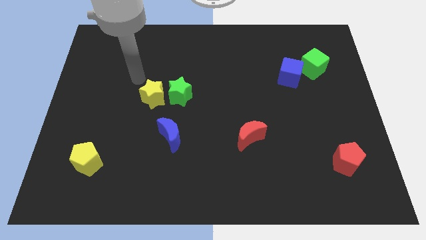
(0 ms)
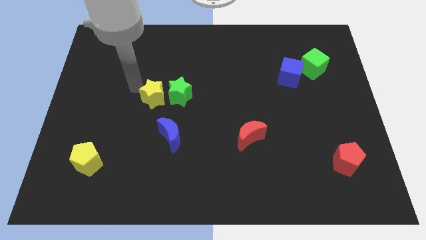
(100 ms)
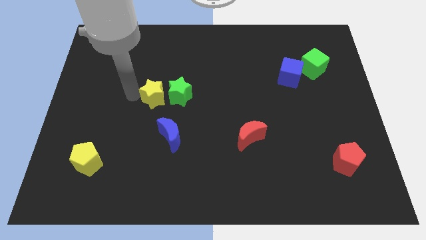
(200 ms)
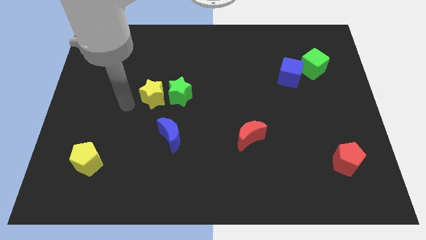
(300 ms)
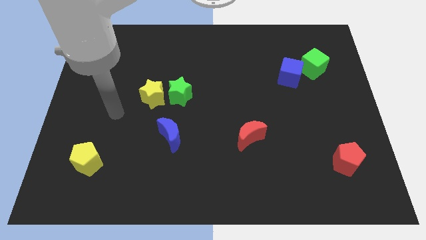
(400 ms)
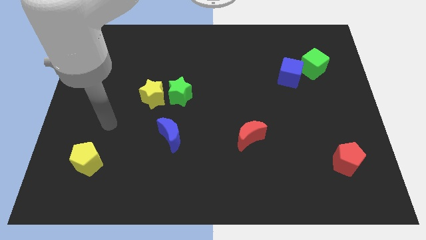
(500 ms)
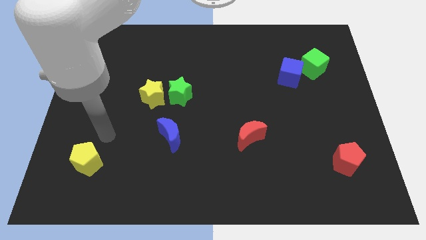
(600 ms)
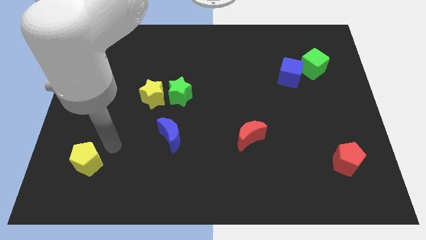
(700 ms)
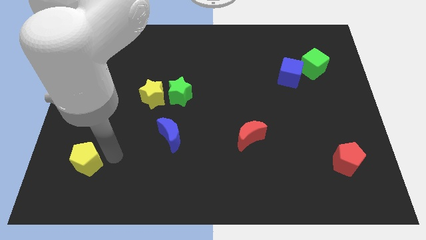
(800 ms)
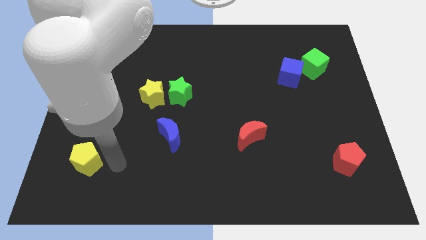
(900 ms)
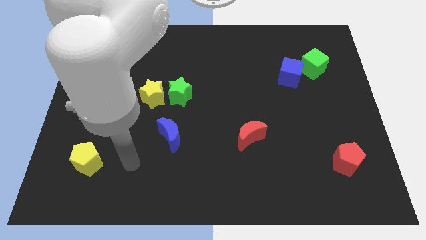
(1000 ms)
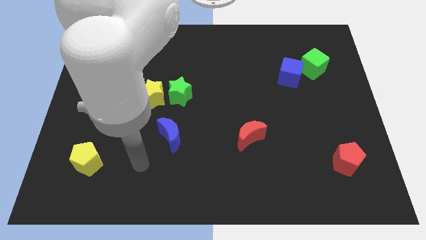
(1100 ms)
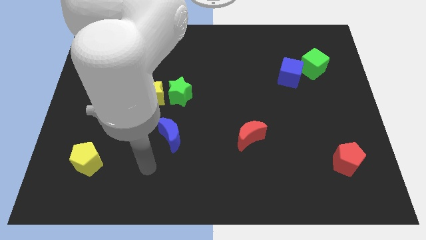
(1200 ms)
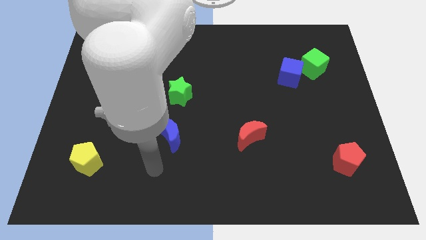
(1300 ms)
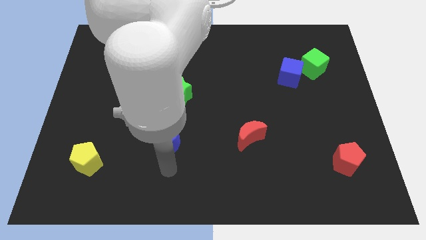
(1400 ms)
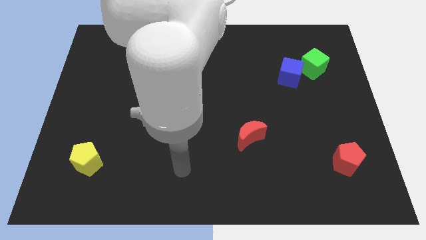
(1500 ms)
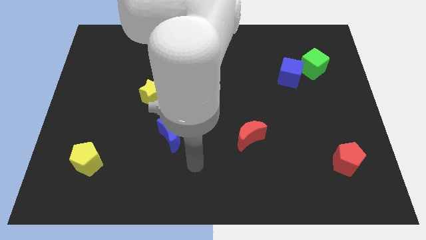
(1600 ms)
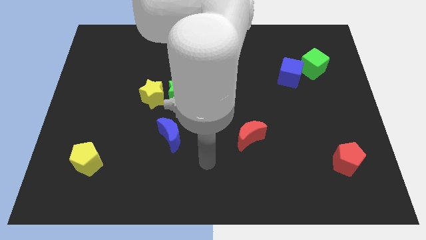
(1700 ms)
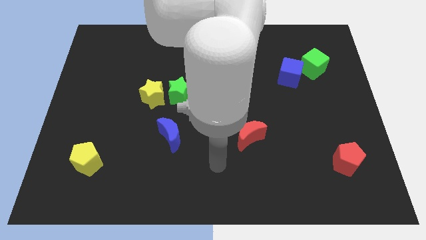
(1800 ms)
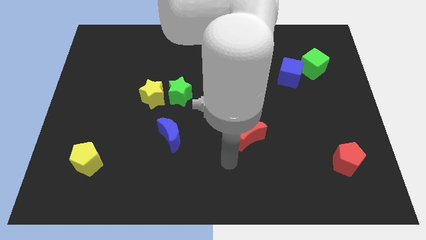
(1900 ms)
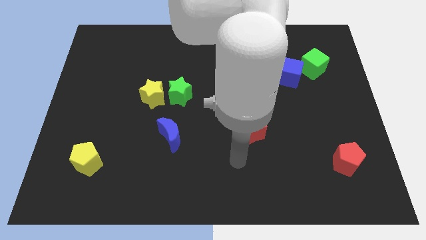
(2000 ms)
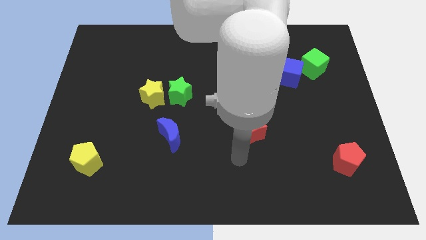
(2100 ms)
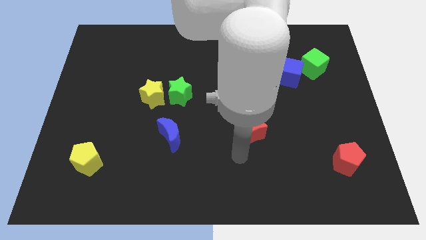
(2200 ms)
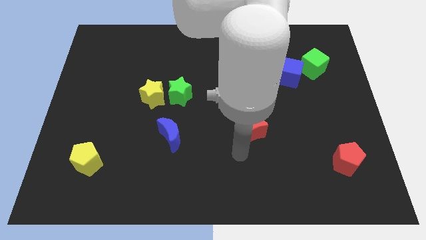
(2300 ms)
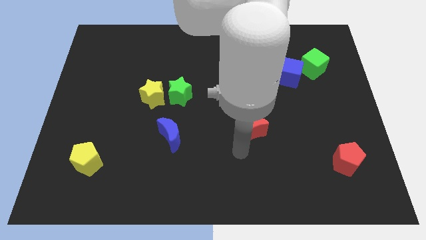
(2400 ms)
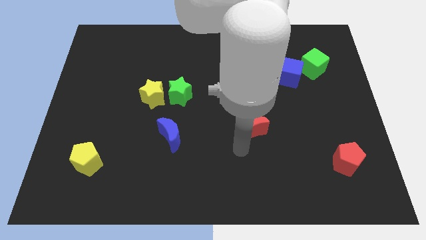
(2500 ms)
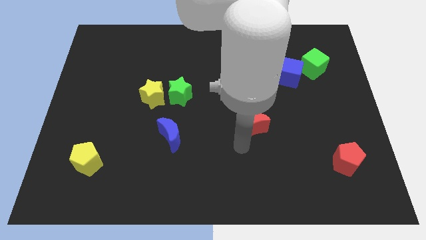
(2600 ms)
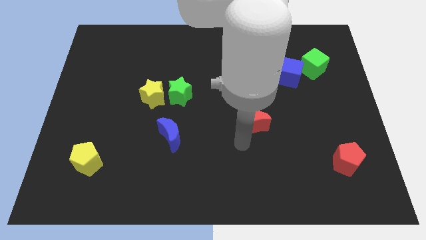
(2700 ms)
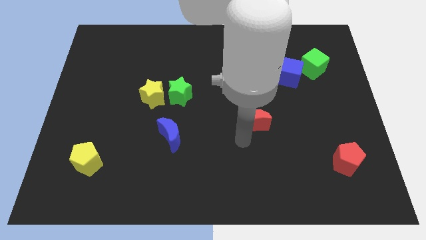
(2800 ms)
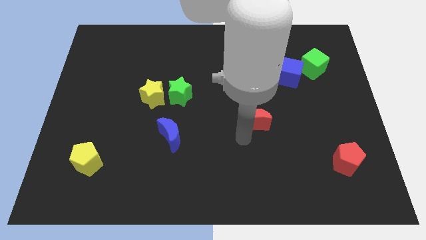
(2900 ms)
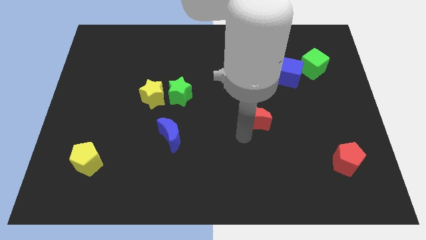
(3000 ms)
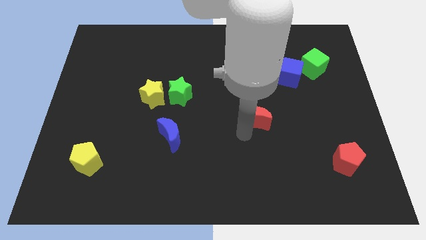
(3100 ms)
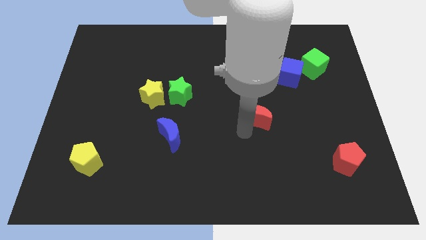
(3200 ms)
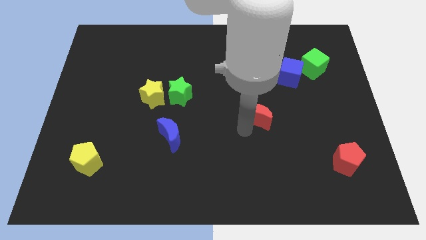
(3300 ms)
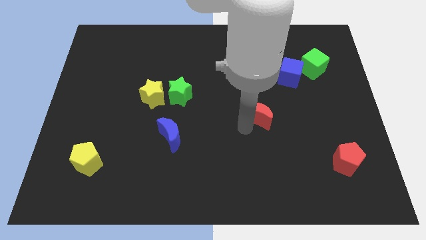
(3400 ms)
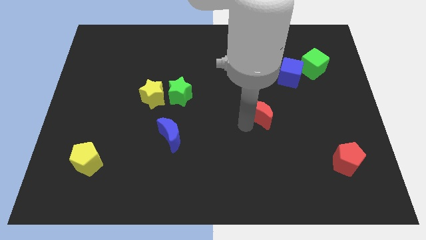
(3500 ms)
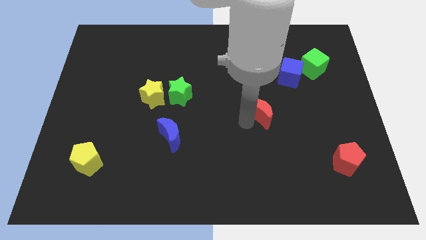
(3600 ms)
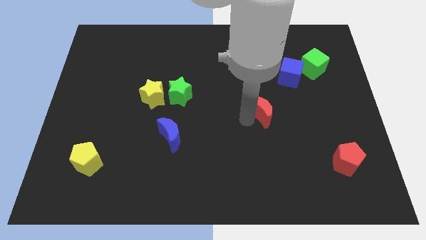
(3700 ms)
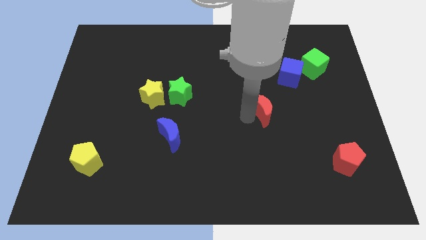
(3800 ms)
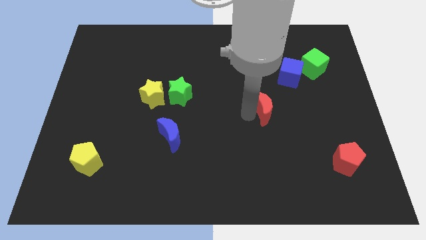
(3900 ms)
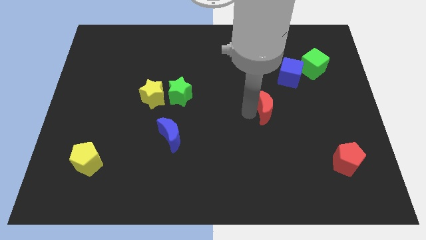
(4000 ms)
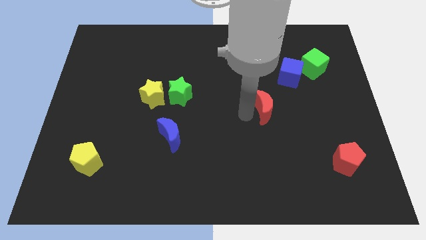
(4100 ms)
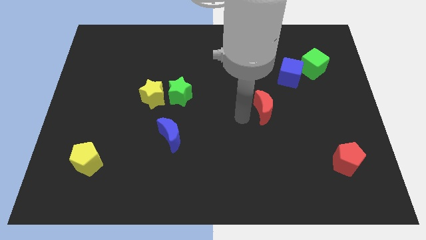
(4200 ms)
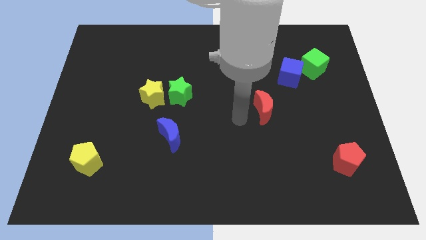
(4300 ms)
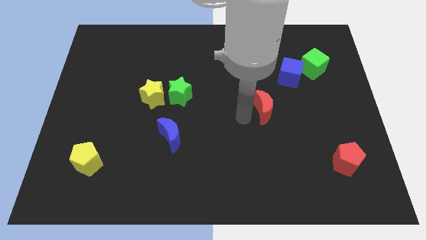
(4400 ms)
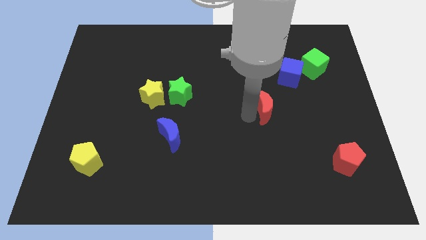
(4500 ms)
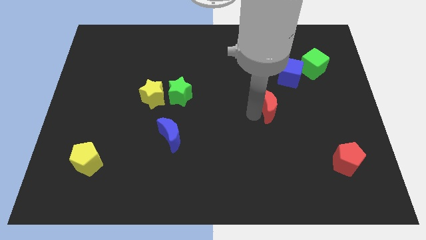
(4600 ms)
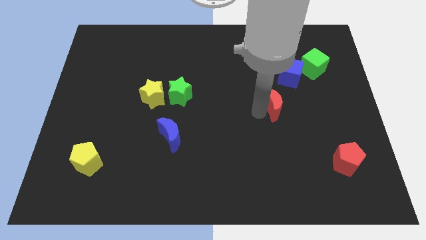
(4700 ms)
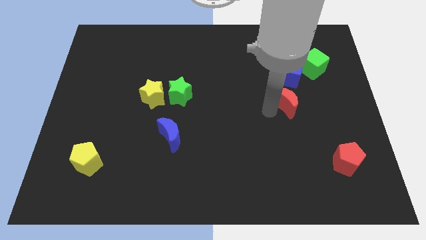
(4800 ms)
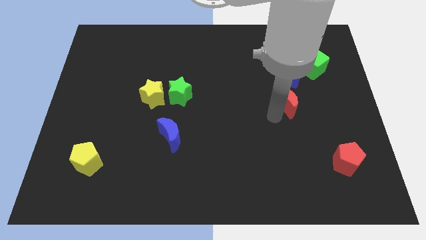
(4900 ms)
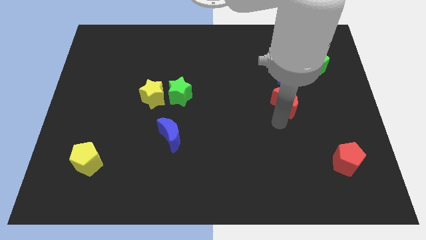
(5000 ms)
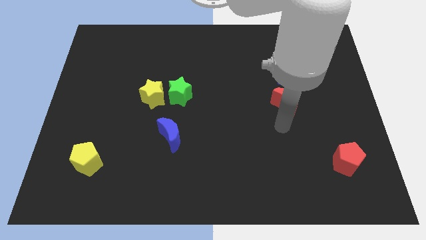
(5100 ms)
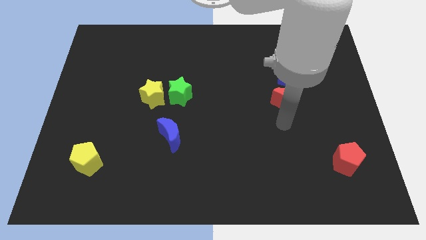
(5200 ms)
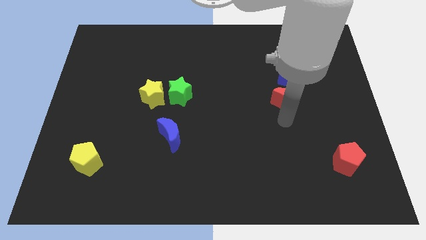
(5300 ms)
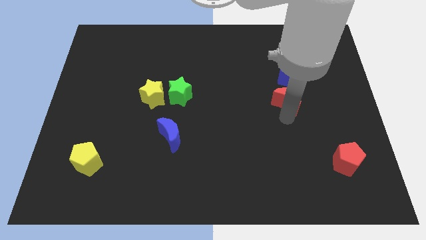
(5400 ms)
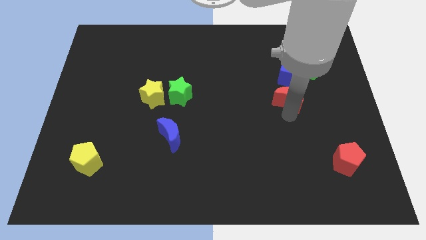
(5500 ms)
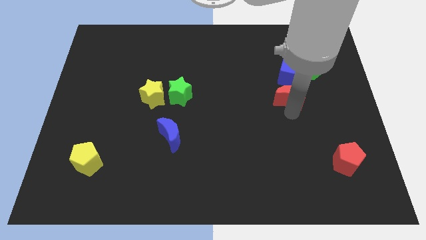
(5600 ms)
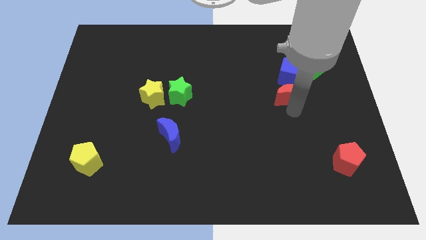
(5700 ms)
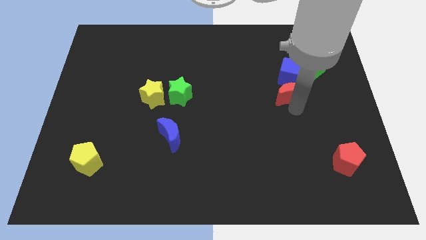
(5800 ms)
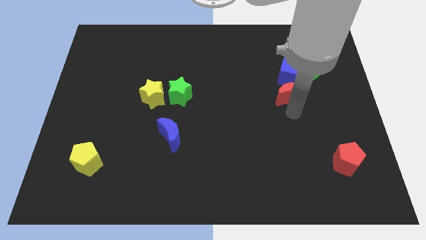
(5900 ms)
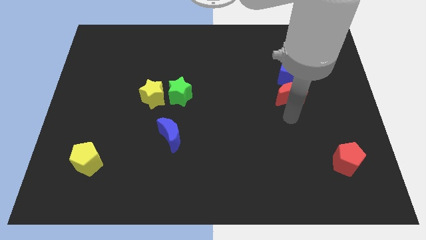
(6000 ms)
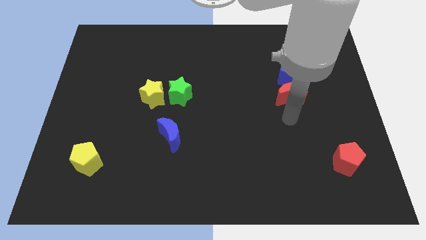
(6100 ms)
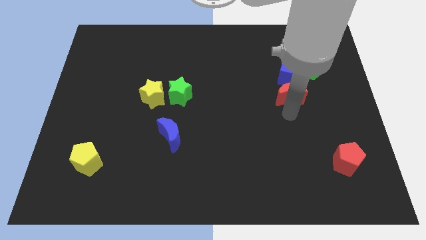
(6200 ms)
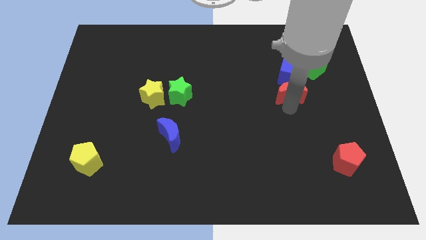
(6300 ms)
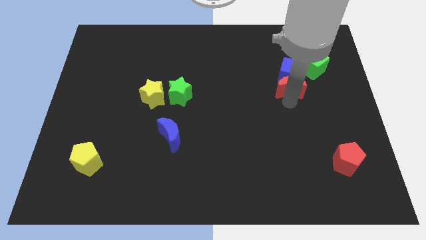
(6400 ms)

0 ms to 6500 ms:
slide the red moon close to the blue cube
